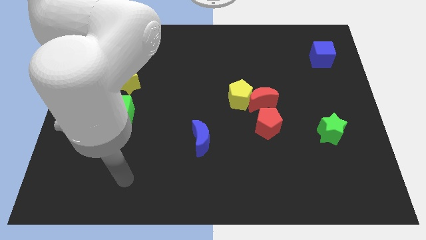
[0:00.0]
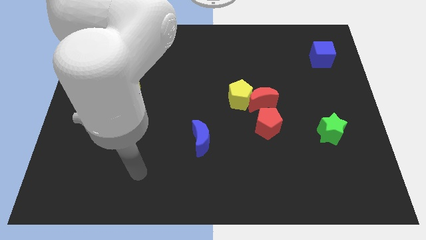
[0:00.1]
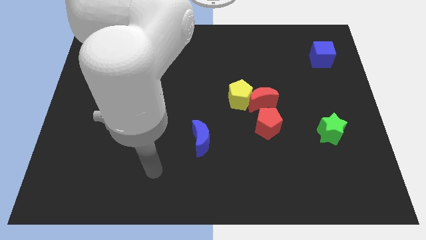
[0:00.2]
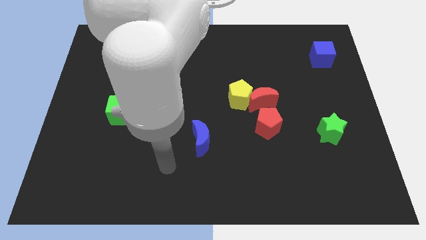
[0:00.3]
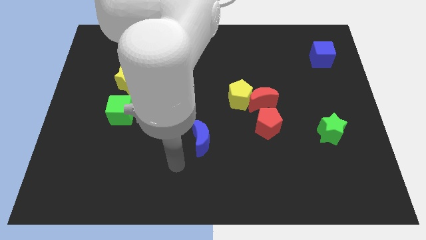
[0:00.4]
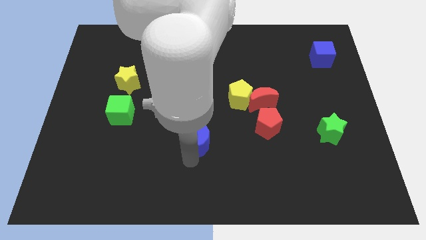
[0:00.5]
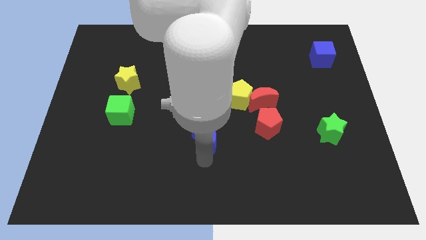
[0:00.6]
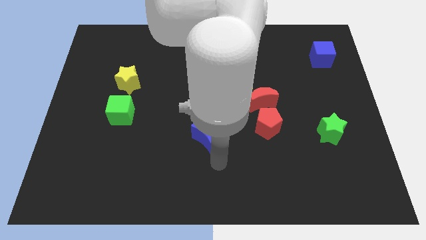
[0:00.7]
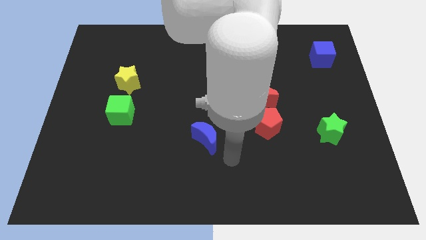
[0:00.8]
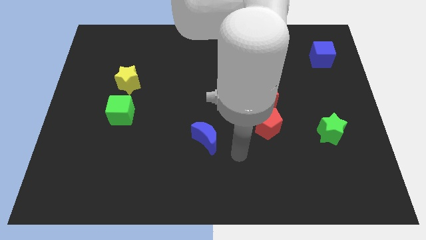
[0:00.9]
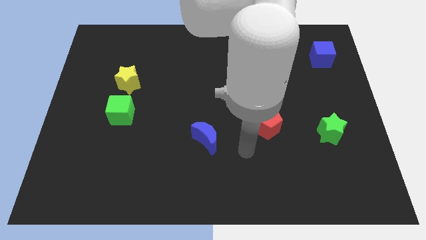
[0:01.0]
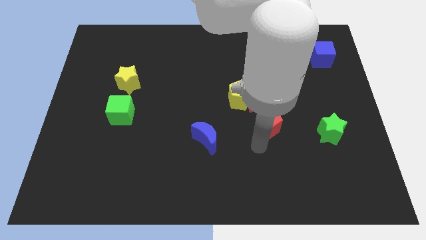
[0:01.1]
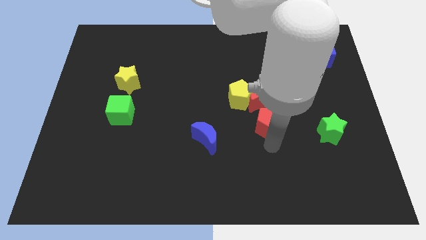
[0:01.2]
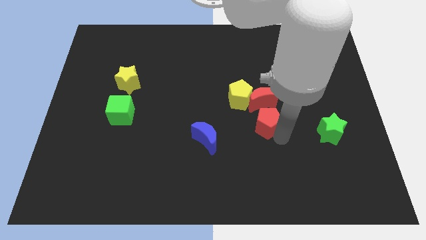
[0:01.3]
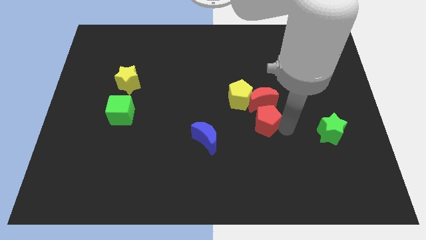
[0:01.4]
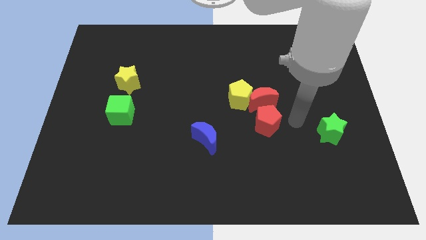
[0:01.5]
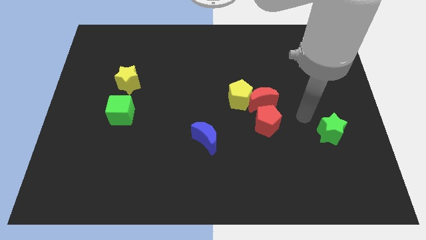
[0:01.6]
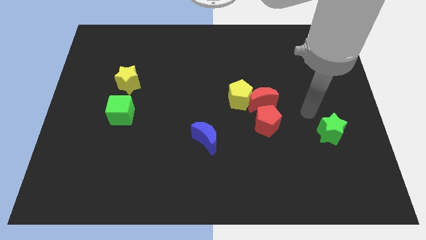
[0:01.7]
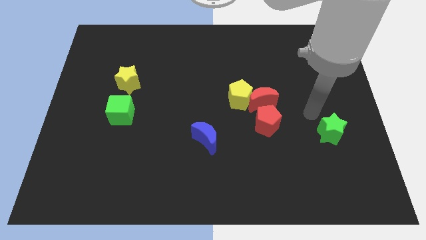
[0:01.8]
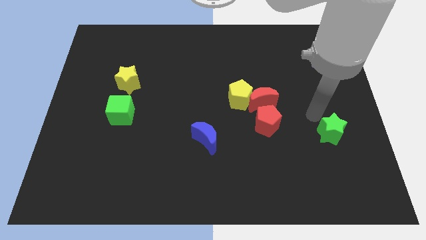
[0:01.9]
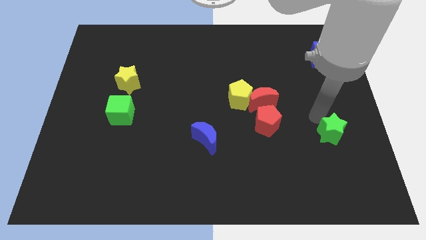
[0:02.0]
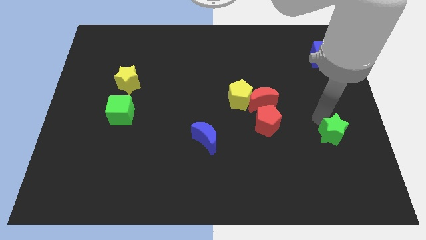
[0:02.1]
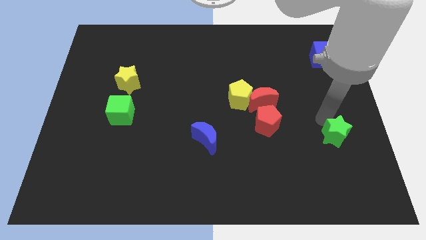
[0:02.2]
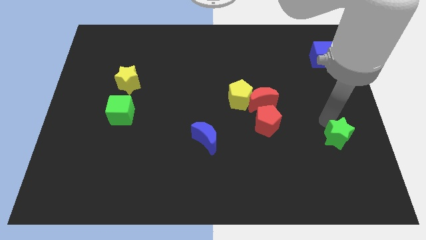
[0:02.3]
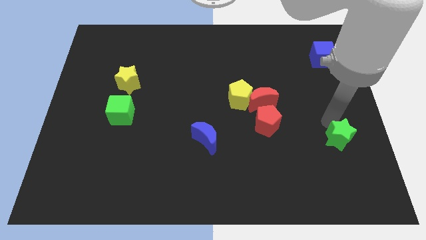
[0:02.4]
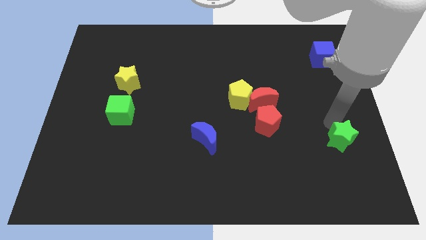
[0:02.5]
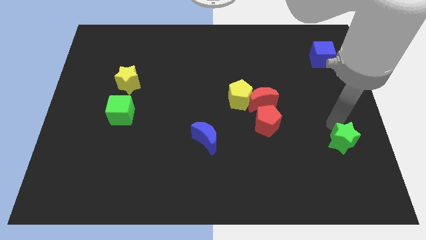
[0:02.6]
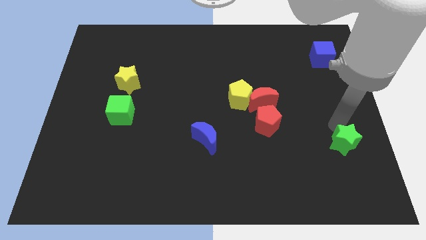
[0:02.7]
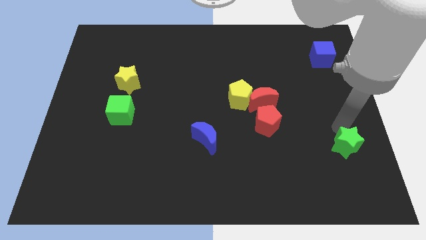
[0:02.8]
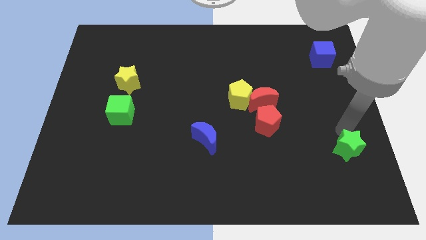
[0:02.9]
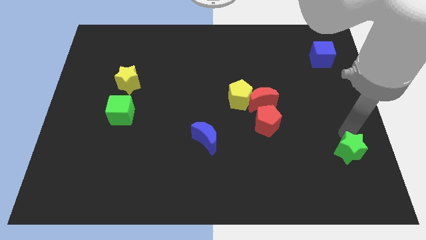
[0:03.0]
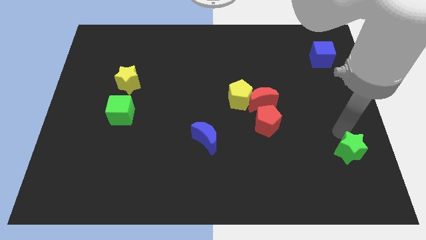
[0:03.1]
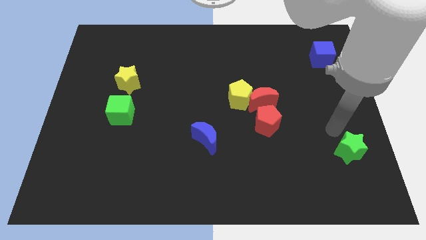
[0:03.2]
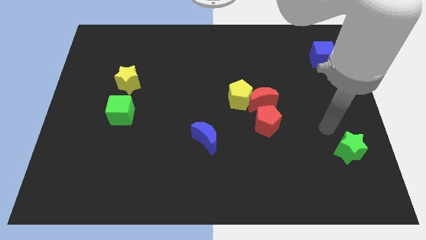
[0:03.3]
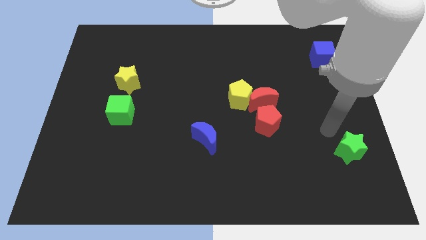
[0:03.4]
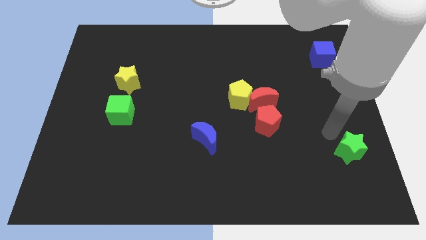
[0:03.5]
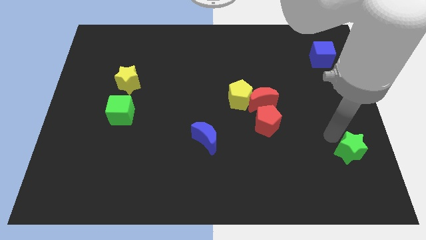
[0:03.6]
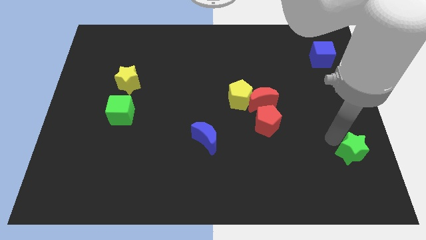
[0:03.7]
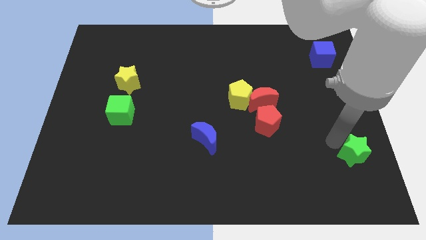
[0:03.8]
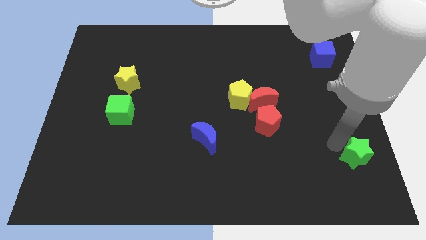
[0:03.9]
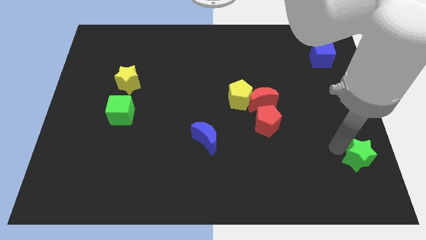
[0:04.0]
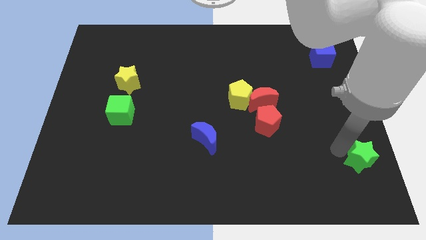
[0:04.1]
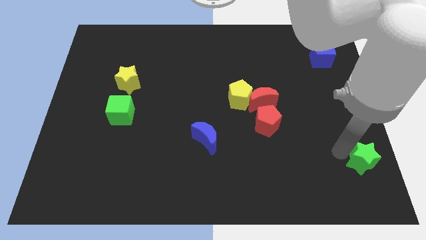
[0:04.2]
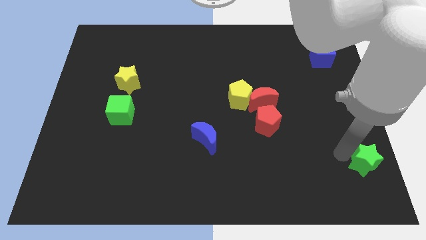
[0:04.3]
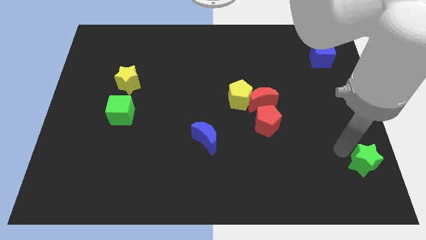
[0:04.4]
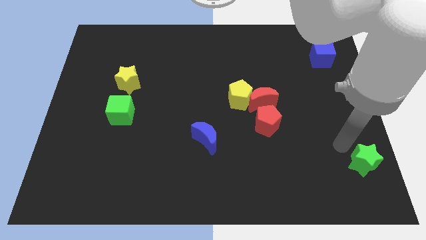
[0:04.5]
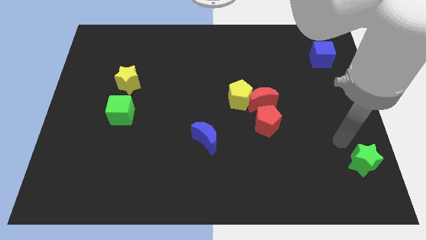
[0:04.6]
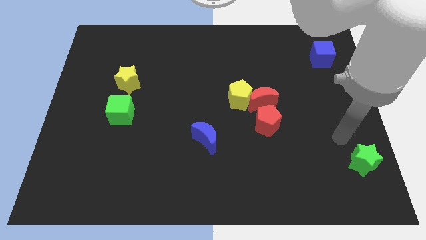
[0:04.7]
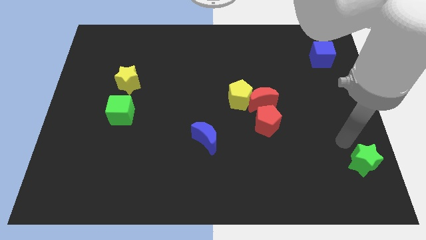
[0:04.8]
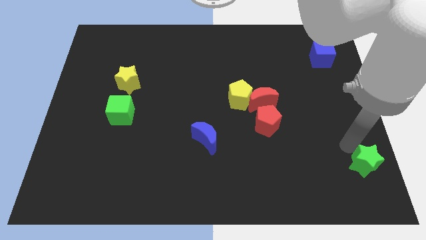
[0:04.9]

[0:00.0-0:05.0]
move the green star to the bottom right of the board

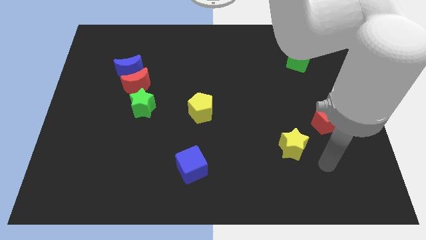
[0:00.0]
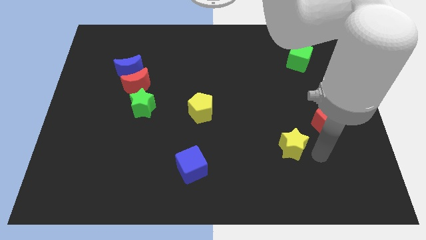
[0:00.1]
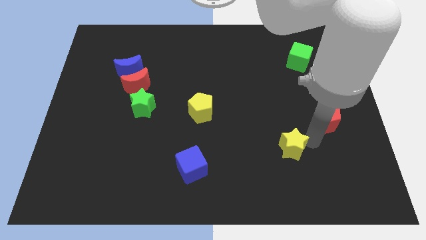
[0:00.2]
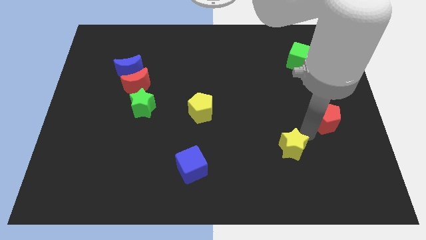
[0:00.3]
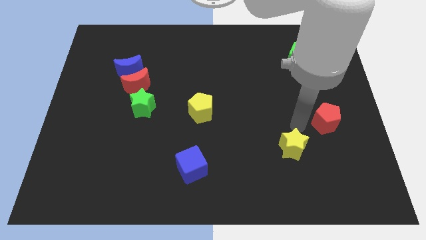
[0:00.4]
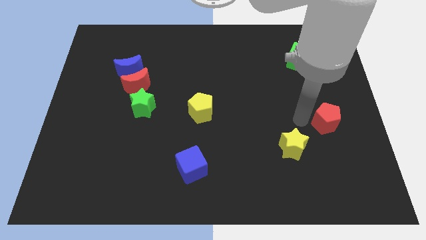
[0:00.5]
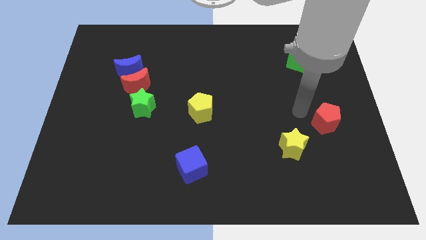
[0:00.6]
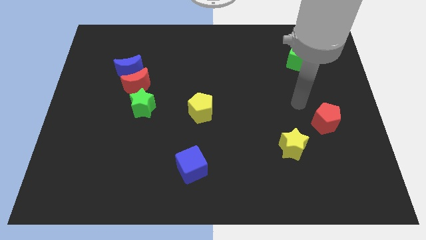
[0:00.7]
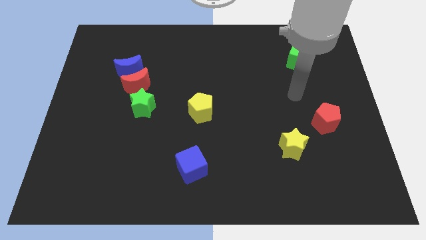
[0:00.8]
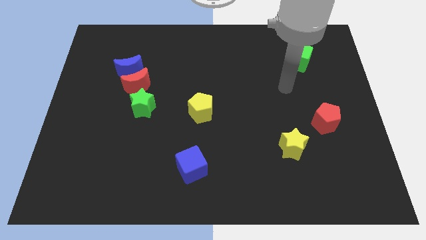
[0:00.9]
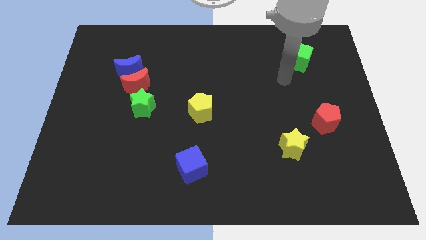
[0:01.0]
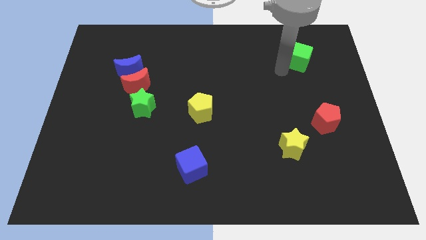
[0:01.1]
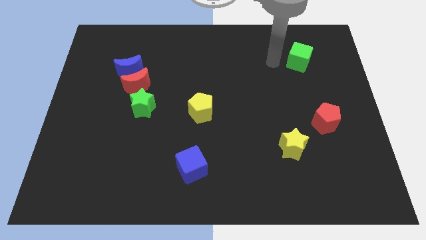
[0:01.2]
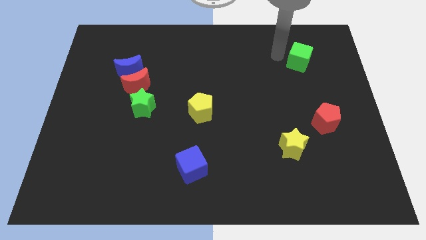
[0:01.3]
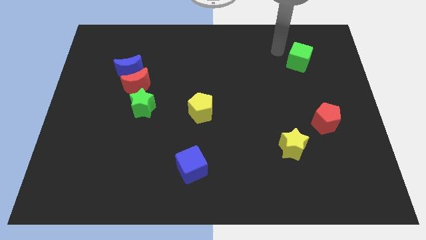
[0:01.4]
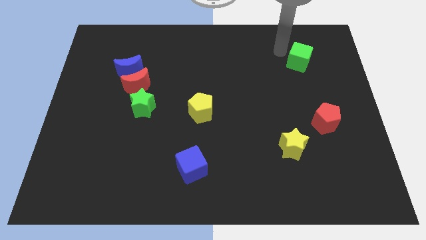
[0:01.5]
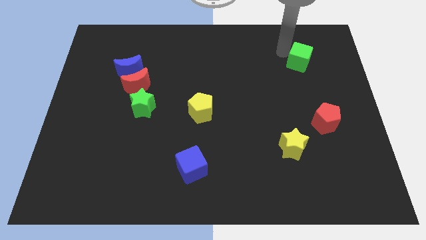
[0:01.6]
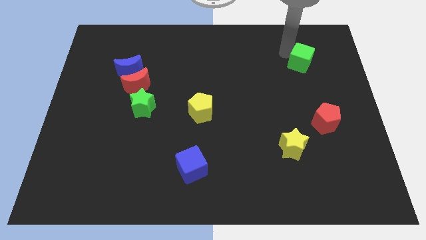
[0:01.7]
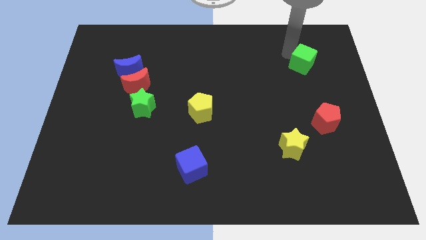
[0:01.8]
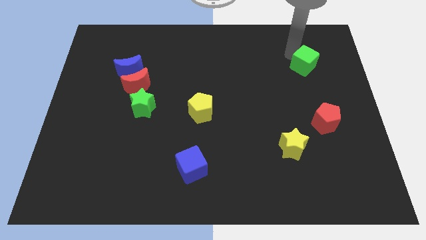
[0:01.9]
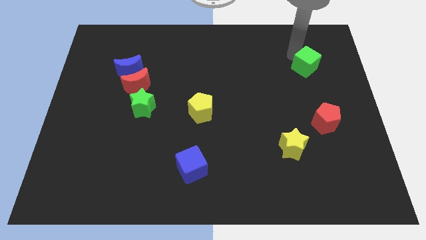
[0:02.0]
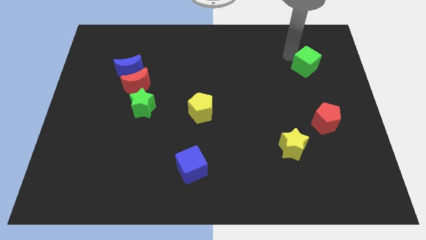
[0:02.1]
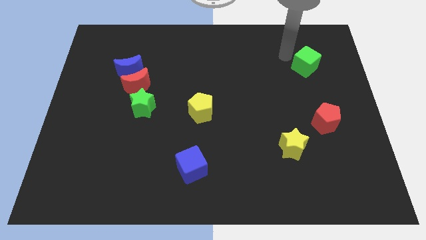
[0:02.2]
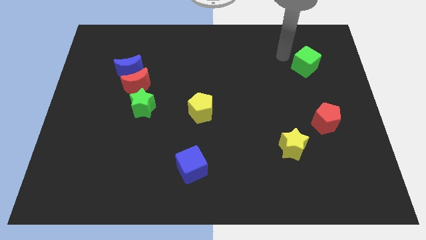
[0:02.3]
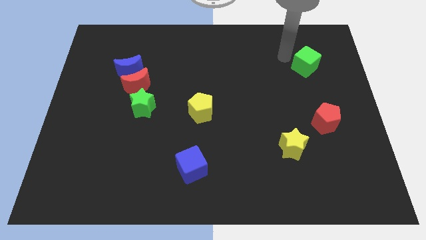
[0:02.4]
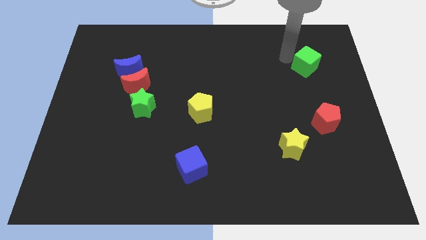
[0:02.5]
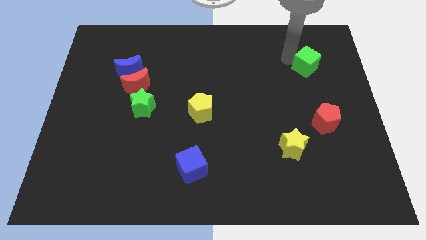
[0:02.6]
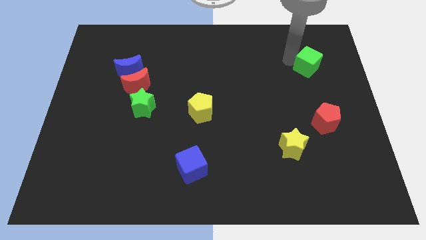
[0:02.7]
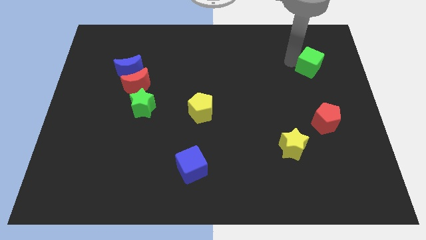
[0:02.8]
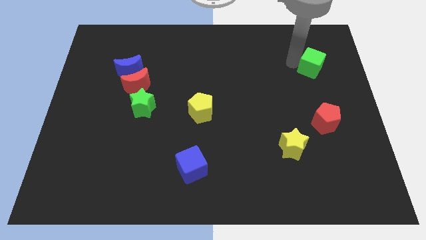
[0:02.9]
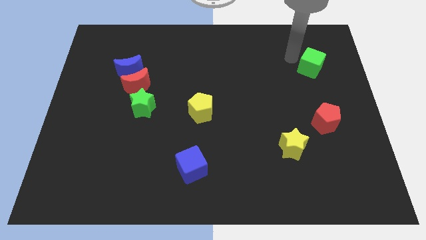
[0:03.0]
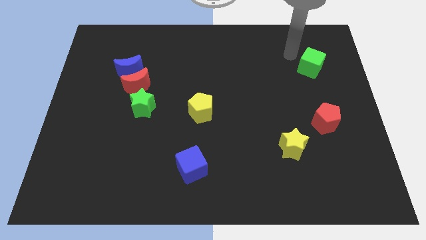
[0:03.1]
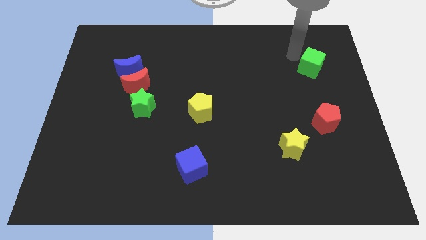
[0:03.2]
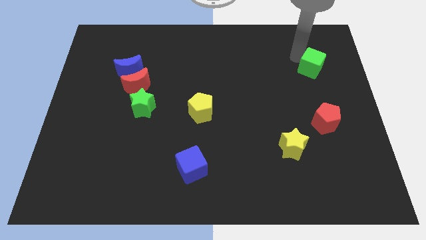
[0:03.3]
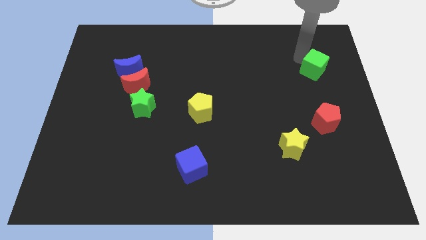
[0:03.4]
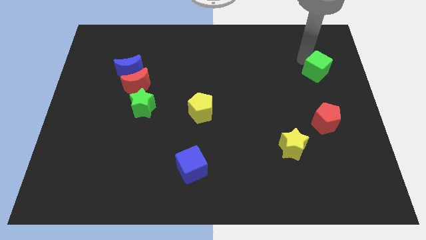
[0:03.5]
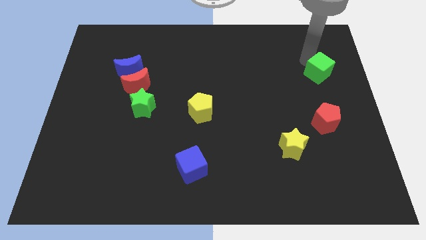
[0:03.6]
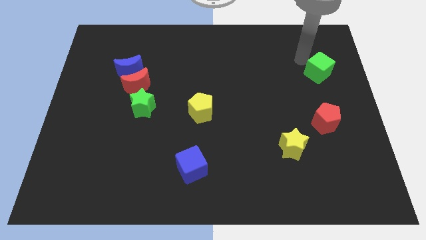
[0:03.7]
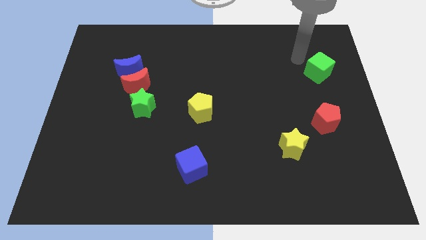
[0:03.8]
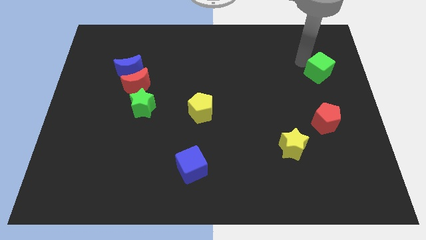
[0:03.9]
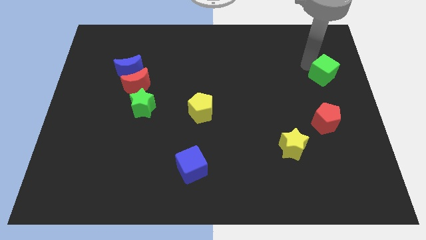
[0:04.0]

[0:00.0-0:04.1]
slide the green cube to the right side
